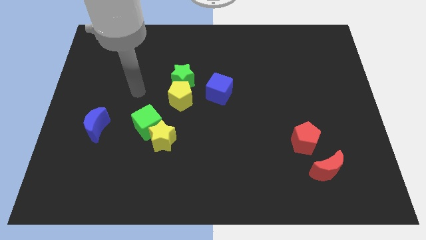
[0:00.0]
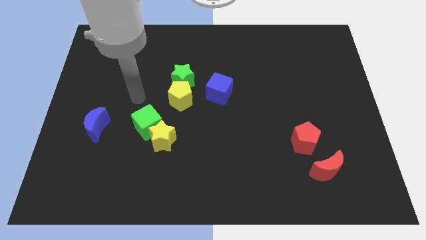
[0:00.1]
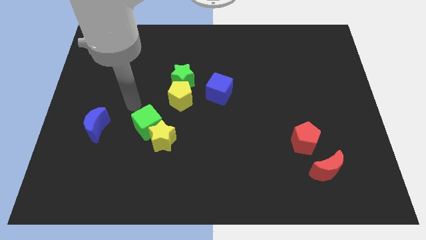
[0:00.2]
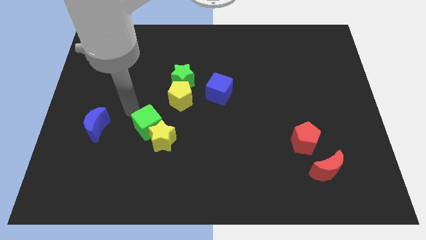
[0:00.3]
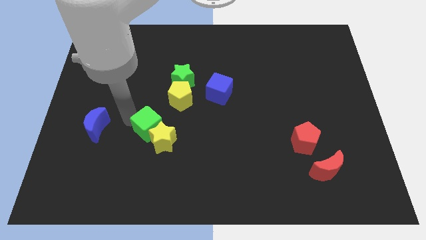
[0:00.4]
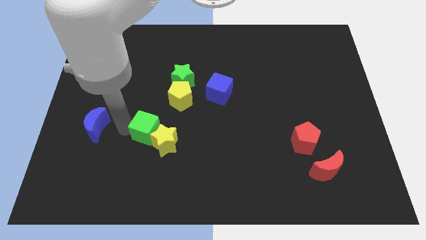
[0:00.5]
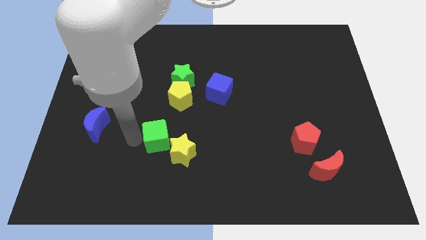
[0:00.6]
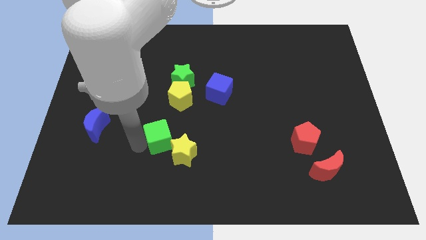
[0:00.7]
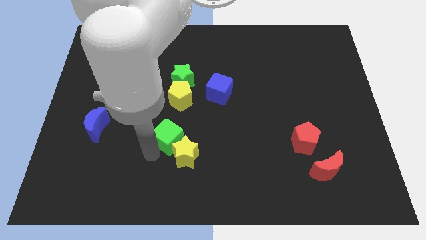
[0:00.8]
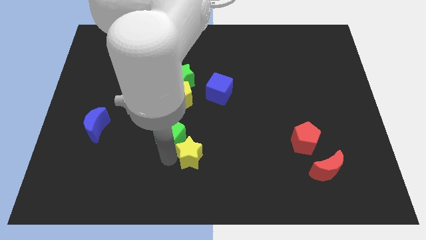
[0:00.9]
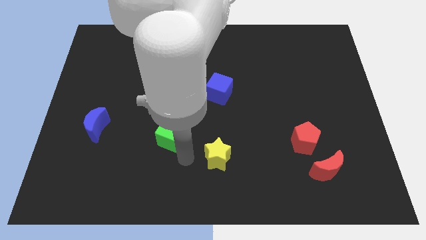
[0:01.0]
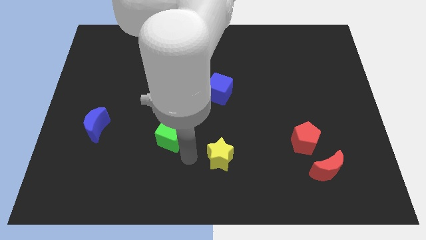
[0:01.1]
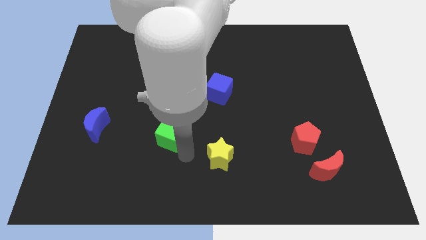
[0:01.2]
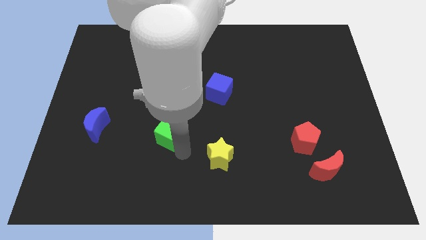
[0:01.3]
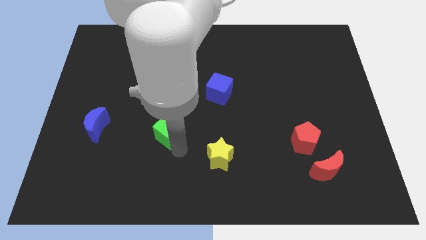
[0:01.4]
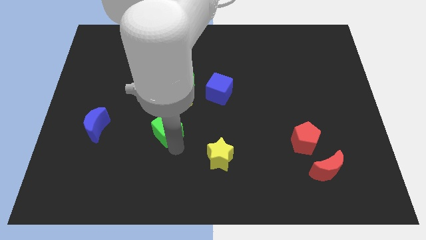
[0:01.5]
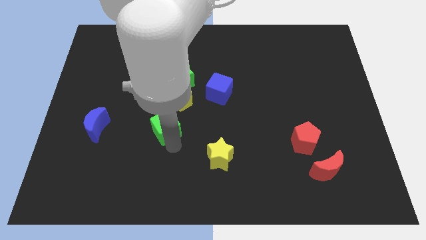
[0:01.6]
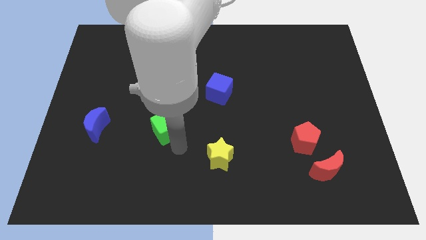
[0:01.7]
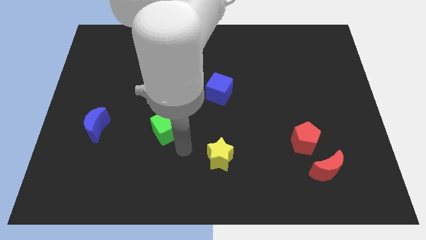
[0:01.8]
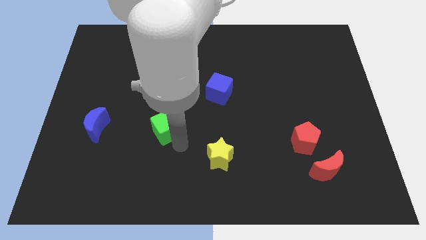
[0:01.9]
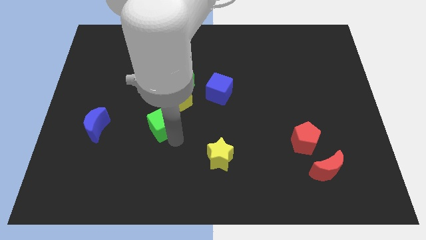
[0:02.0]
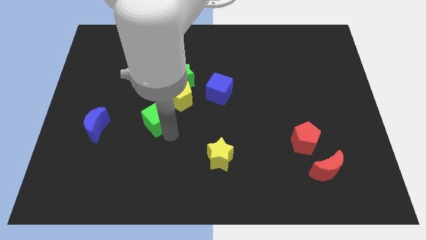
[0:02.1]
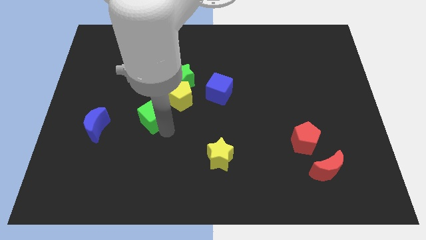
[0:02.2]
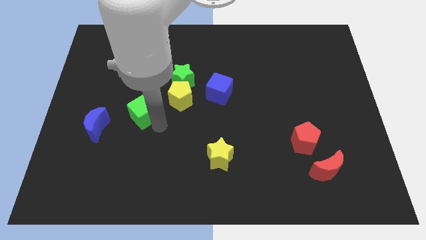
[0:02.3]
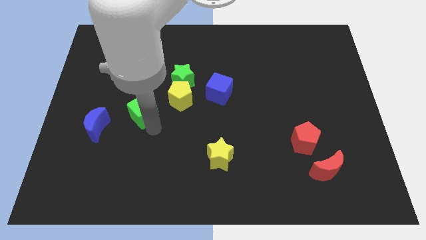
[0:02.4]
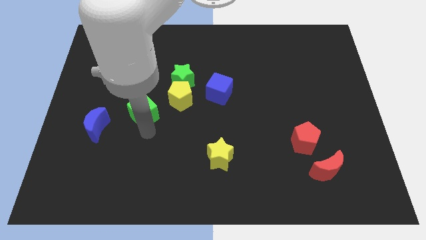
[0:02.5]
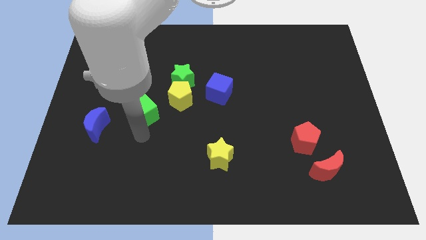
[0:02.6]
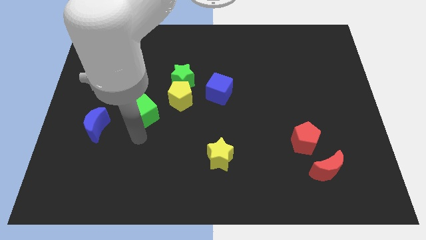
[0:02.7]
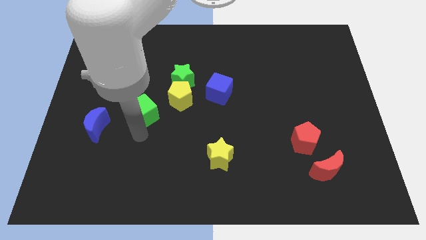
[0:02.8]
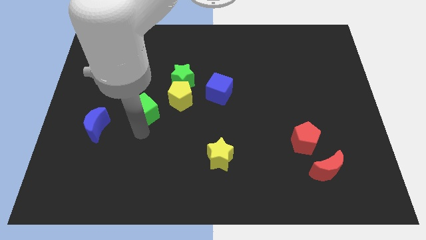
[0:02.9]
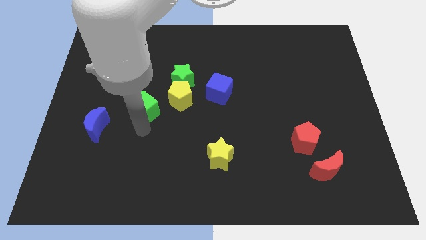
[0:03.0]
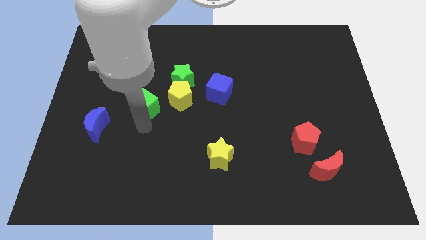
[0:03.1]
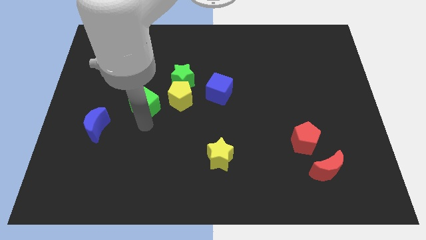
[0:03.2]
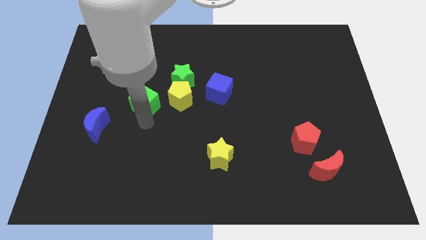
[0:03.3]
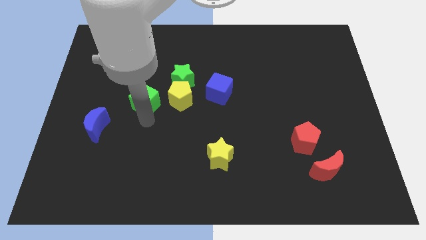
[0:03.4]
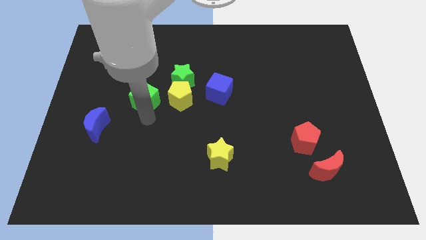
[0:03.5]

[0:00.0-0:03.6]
move the green cube upwards a little bit

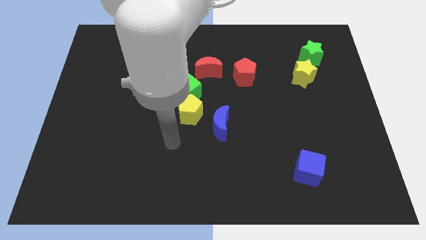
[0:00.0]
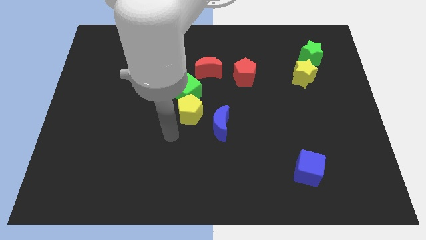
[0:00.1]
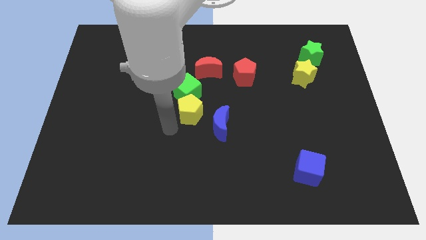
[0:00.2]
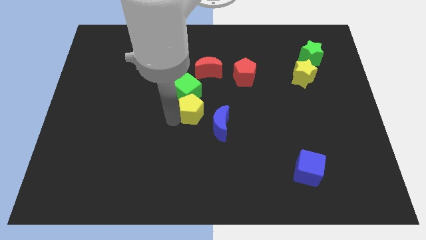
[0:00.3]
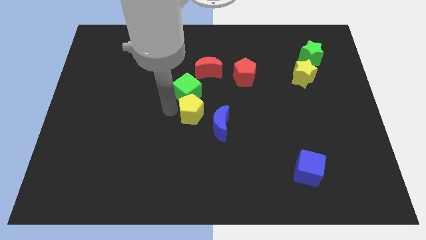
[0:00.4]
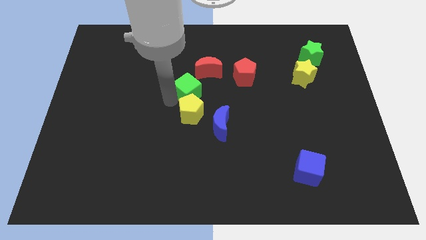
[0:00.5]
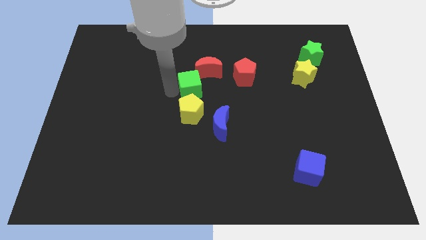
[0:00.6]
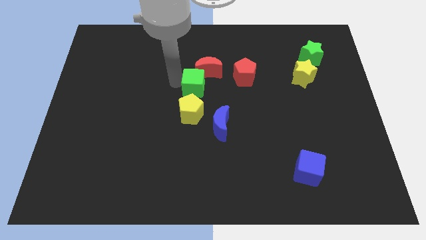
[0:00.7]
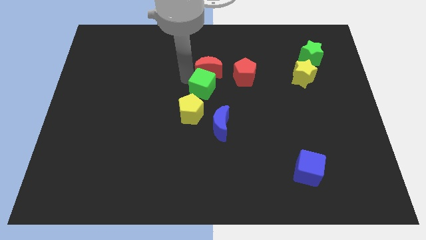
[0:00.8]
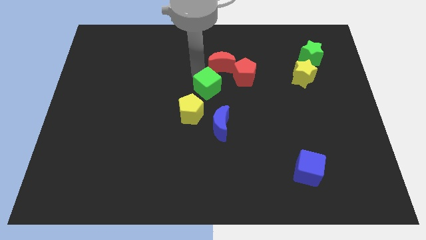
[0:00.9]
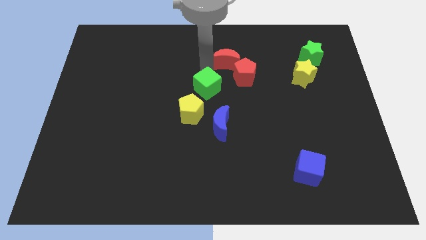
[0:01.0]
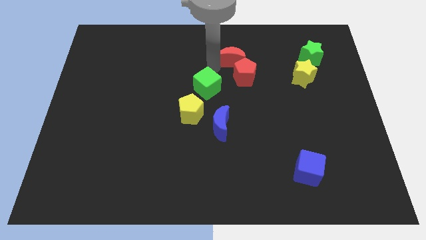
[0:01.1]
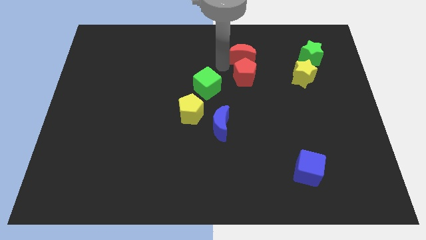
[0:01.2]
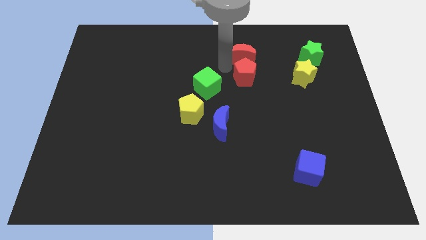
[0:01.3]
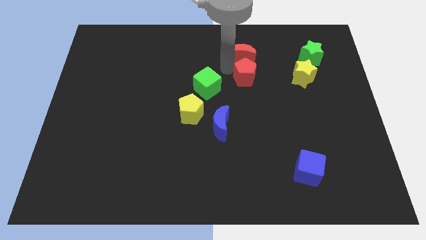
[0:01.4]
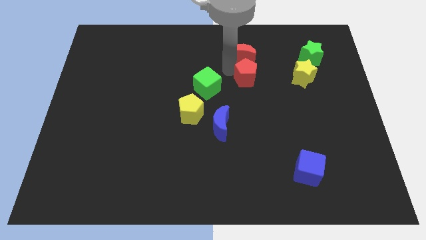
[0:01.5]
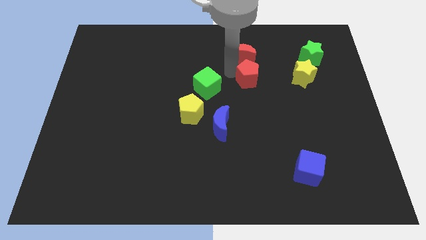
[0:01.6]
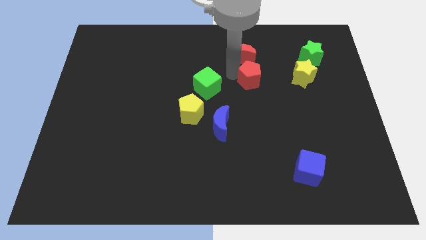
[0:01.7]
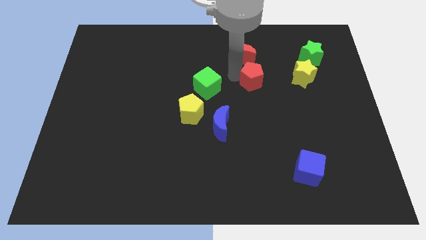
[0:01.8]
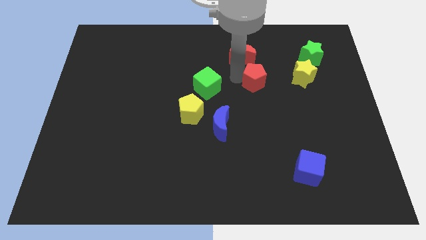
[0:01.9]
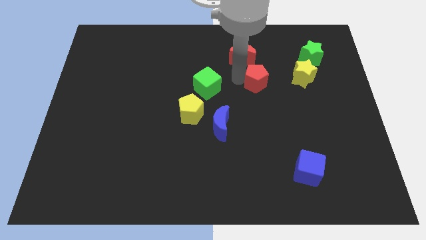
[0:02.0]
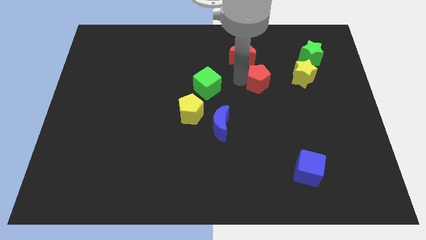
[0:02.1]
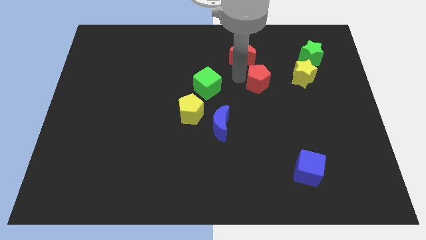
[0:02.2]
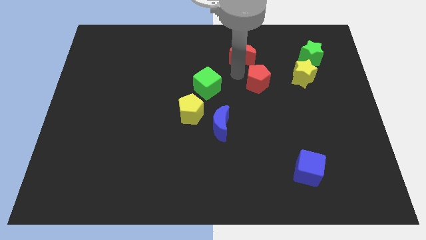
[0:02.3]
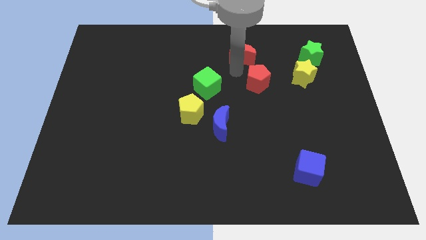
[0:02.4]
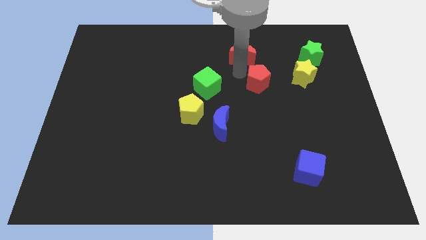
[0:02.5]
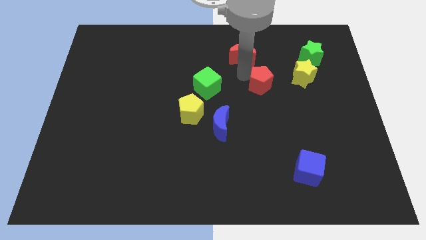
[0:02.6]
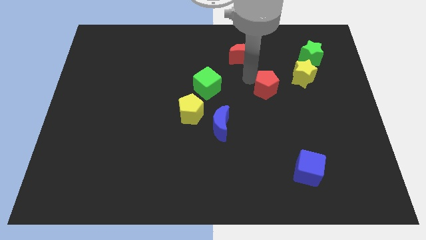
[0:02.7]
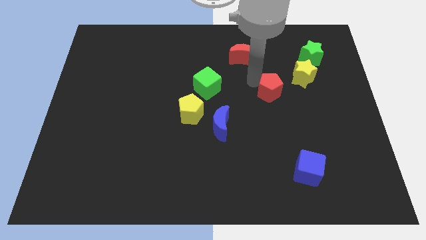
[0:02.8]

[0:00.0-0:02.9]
slightly slide the red pentagon diagonally down and right

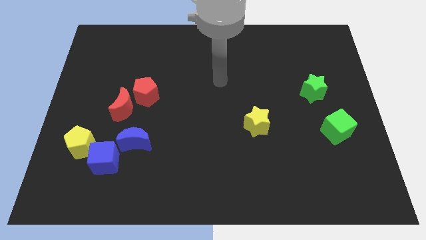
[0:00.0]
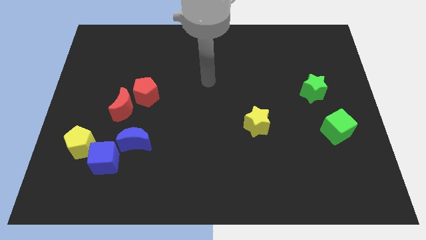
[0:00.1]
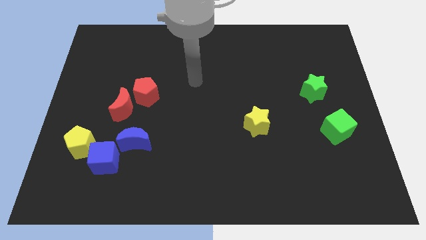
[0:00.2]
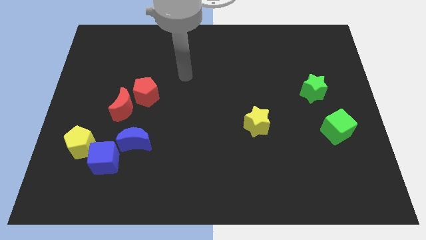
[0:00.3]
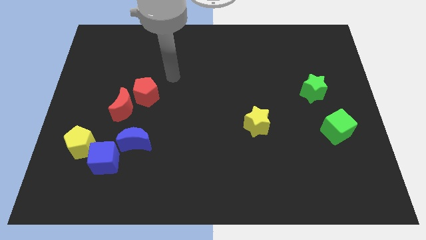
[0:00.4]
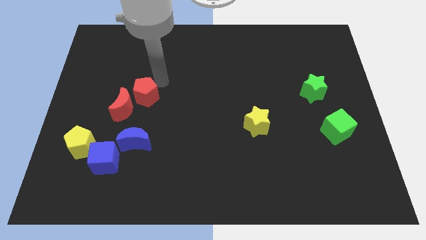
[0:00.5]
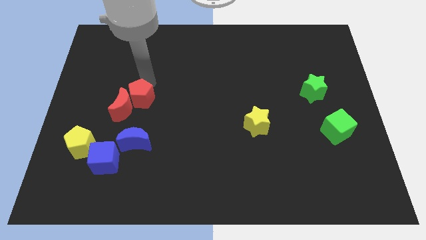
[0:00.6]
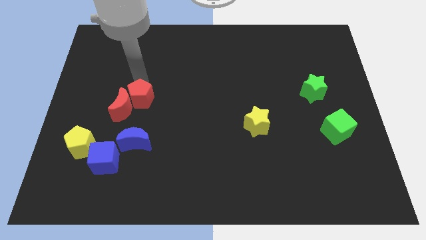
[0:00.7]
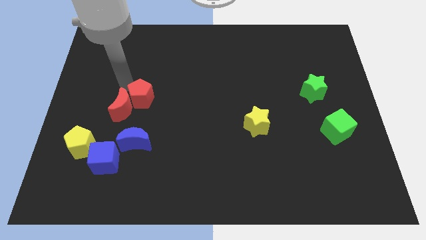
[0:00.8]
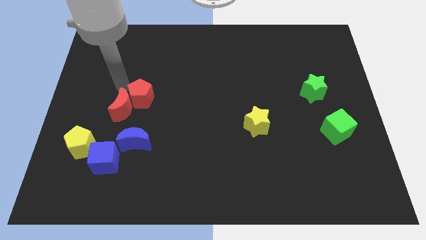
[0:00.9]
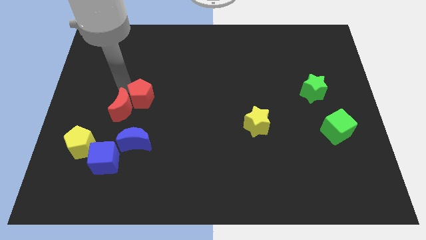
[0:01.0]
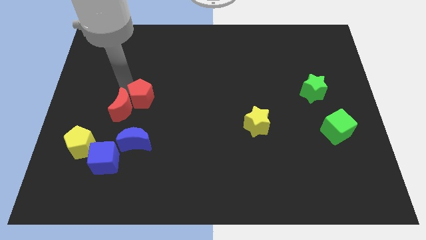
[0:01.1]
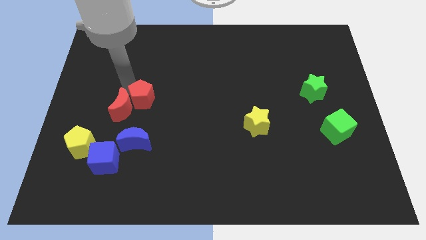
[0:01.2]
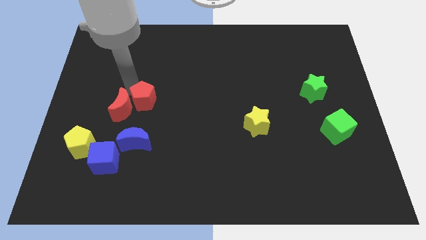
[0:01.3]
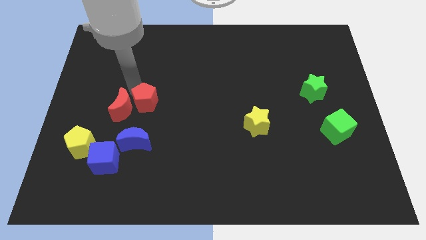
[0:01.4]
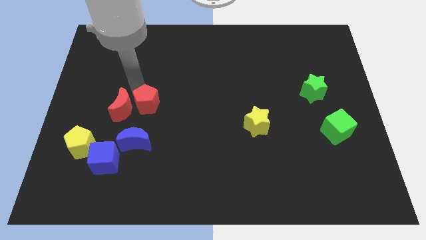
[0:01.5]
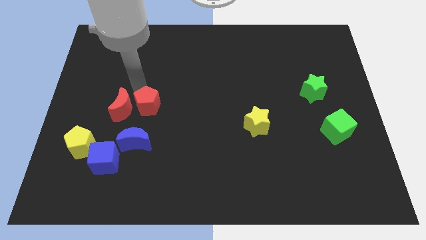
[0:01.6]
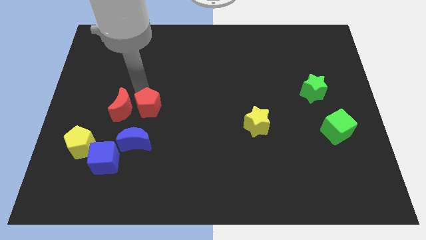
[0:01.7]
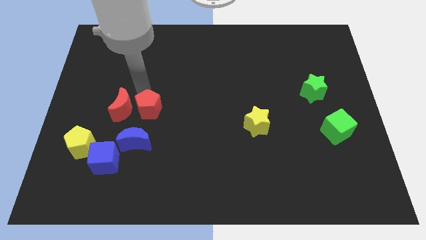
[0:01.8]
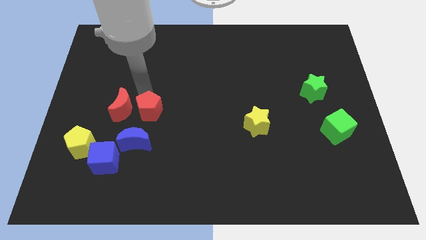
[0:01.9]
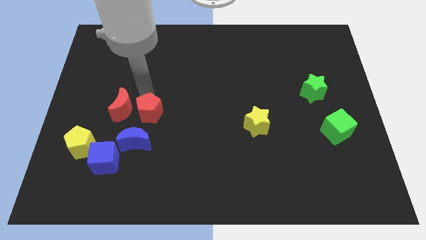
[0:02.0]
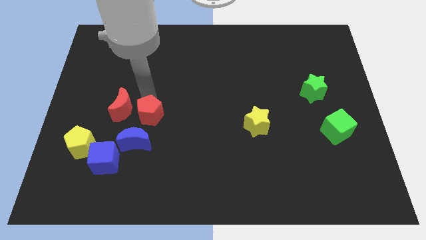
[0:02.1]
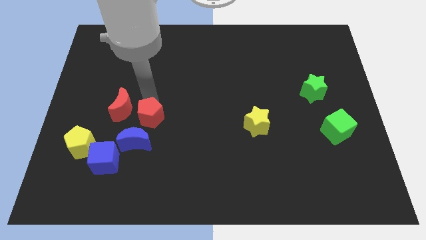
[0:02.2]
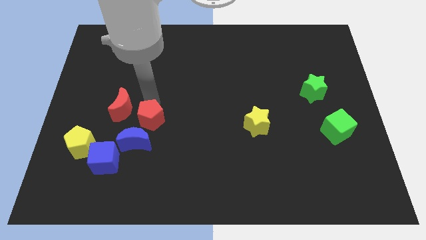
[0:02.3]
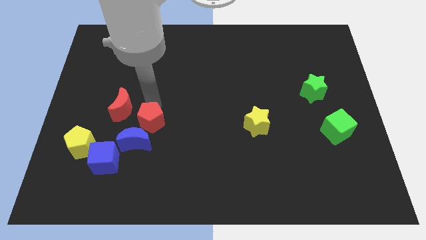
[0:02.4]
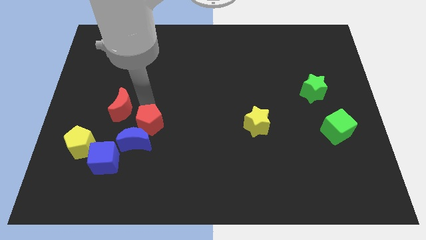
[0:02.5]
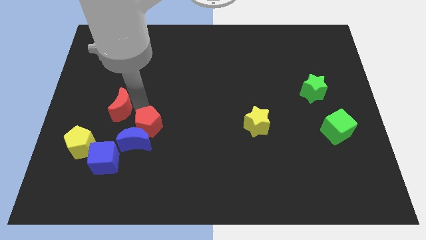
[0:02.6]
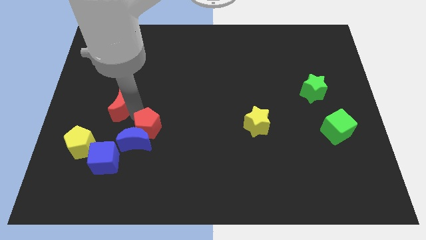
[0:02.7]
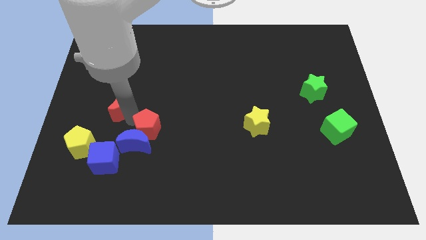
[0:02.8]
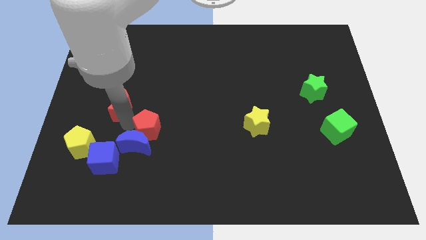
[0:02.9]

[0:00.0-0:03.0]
slightly slide the red pentagon downwards and to the right
